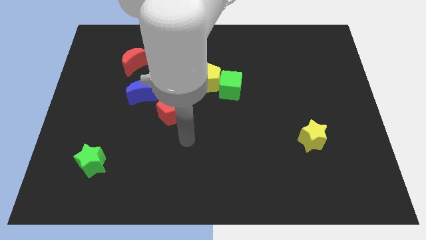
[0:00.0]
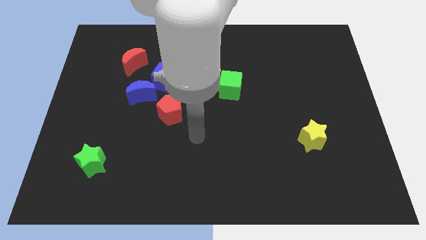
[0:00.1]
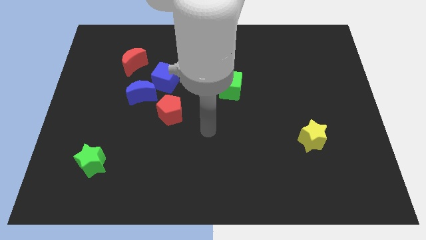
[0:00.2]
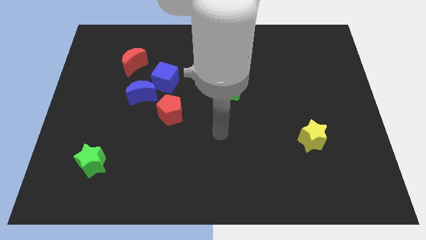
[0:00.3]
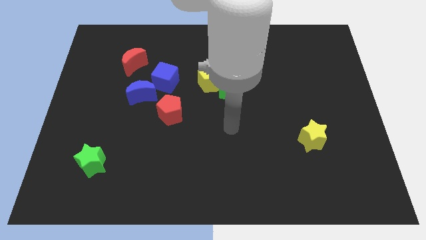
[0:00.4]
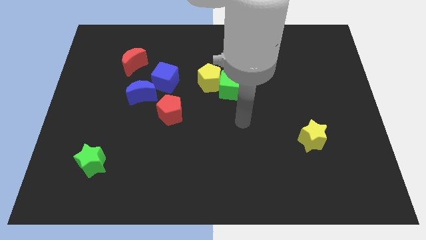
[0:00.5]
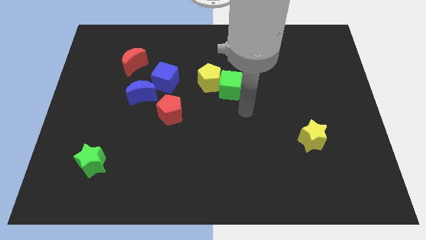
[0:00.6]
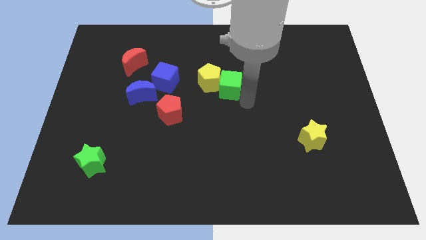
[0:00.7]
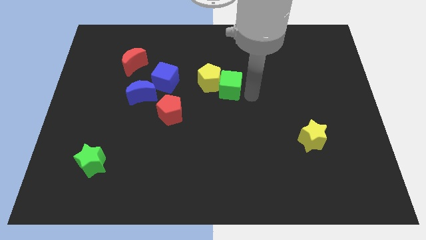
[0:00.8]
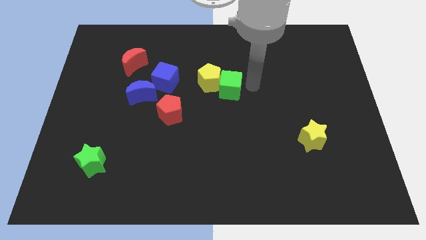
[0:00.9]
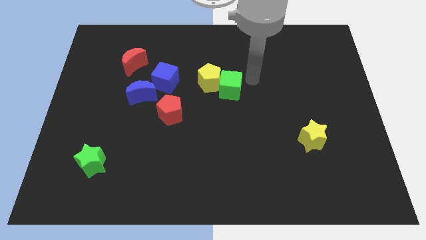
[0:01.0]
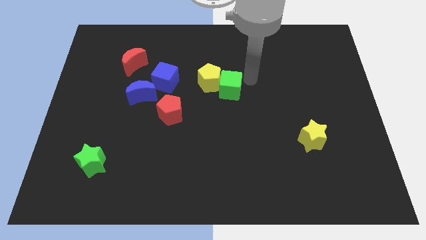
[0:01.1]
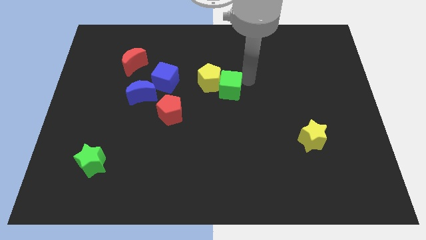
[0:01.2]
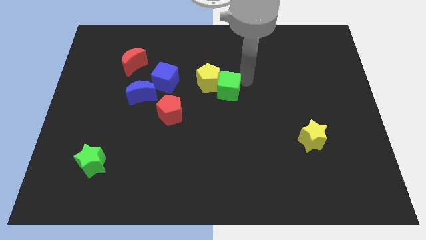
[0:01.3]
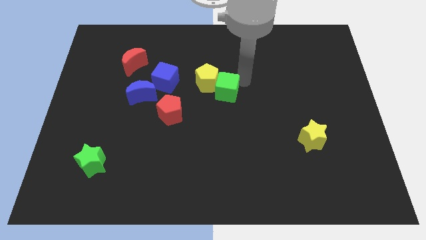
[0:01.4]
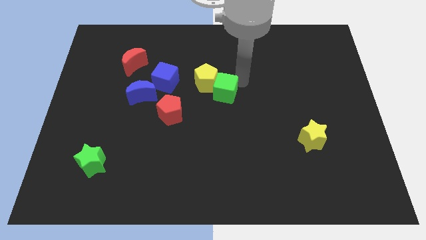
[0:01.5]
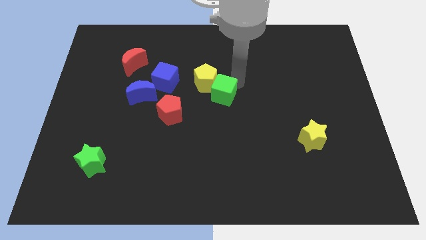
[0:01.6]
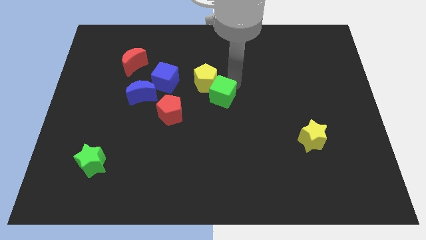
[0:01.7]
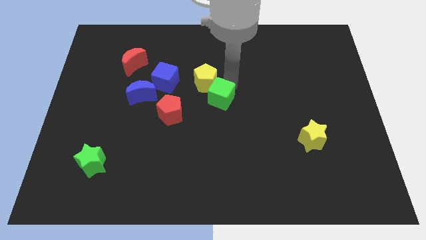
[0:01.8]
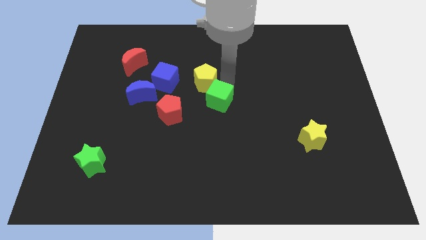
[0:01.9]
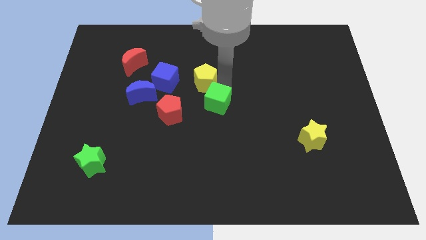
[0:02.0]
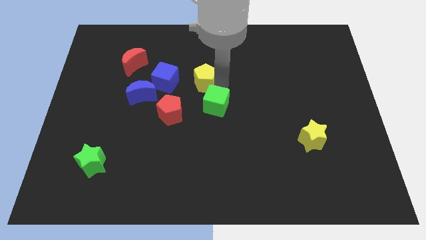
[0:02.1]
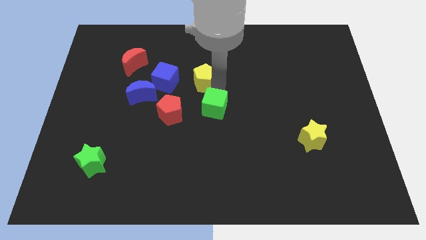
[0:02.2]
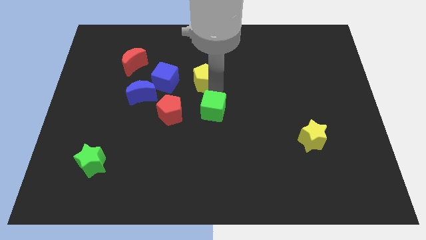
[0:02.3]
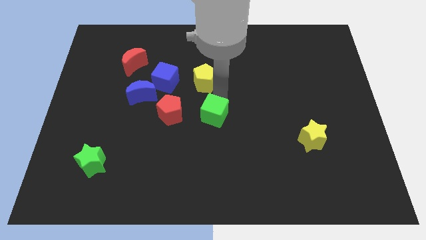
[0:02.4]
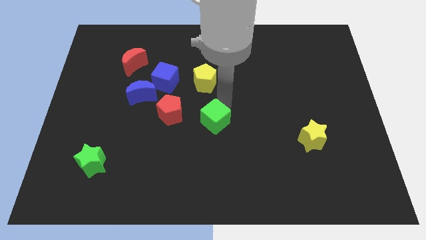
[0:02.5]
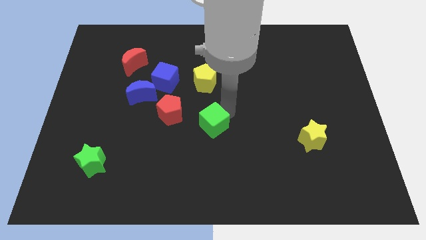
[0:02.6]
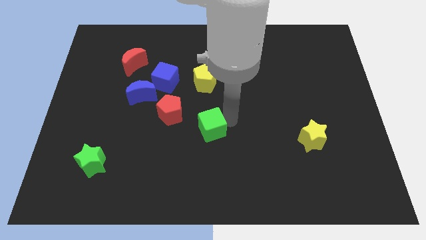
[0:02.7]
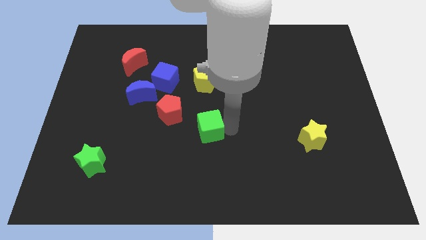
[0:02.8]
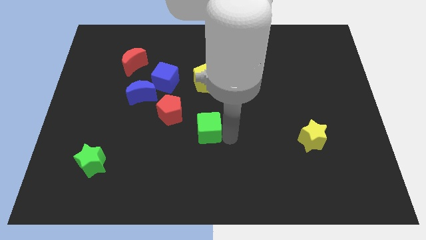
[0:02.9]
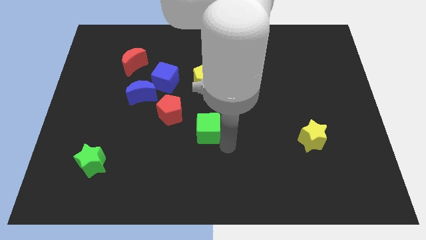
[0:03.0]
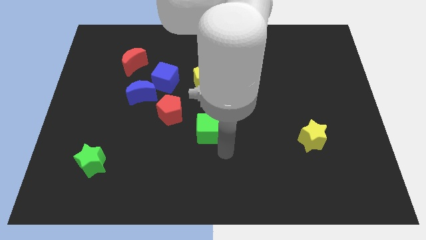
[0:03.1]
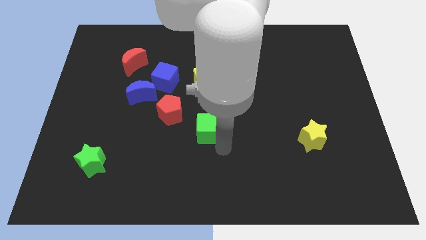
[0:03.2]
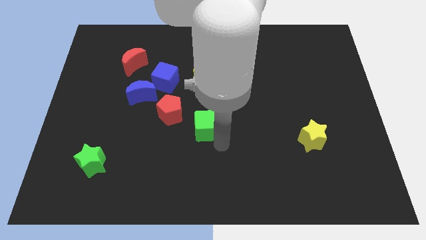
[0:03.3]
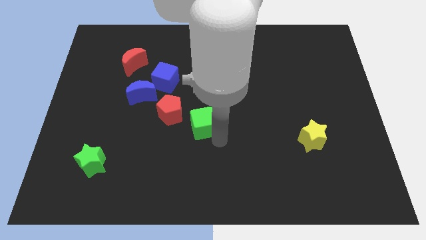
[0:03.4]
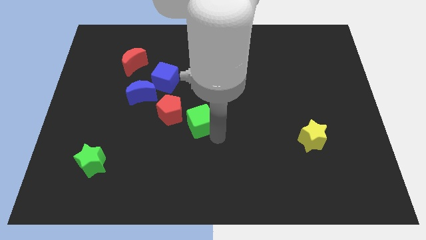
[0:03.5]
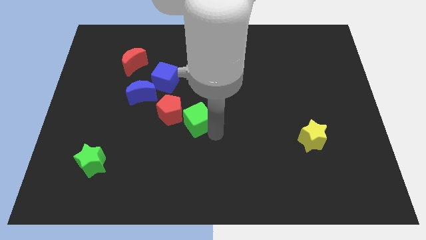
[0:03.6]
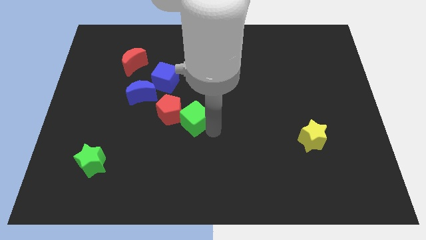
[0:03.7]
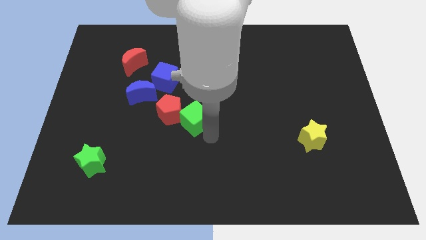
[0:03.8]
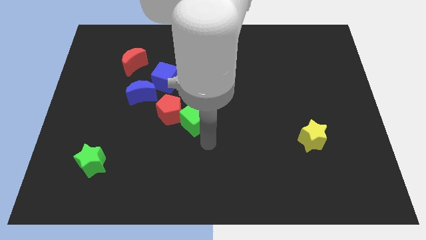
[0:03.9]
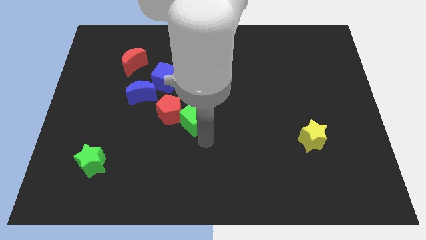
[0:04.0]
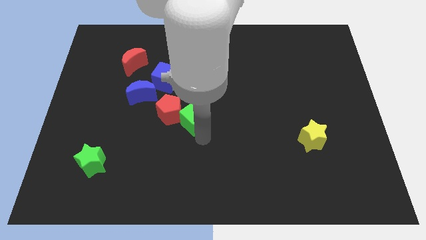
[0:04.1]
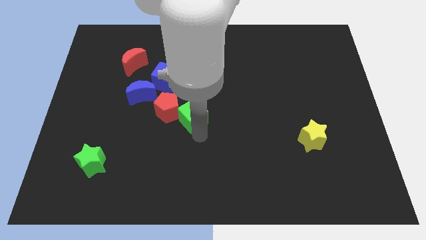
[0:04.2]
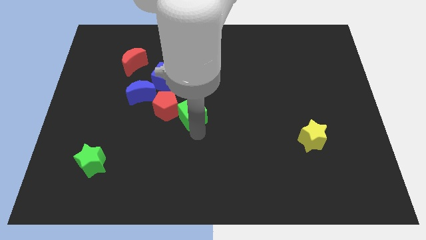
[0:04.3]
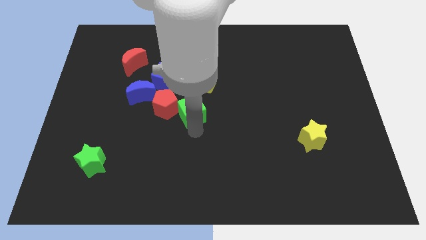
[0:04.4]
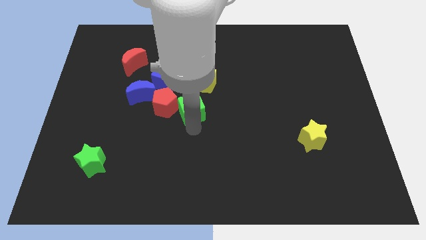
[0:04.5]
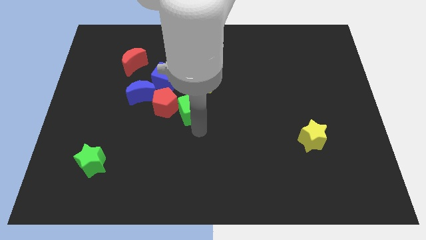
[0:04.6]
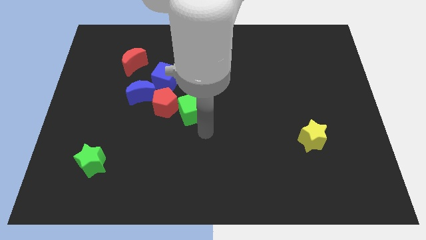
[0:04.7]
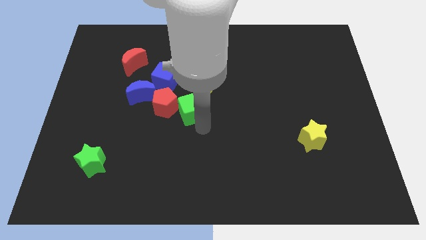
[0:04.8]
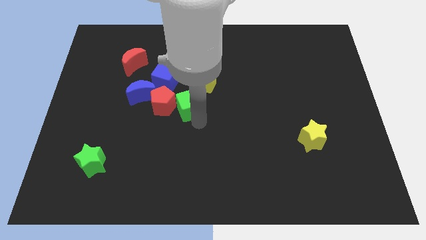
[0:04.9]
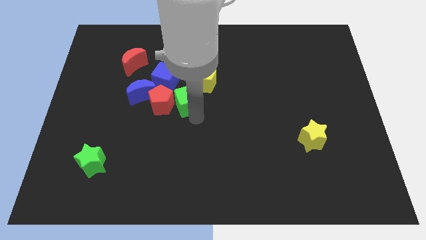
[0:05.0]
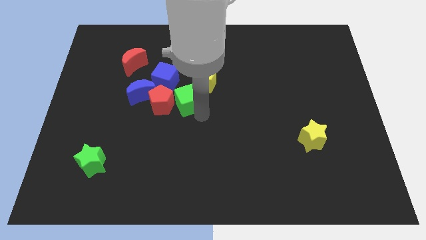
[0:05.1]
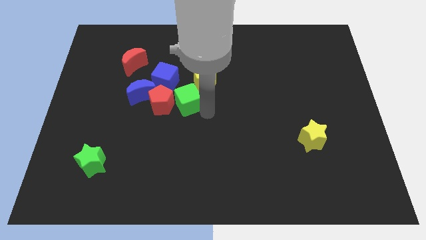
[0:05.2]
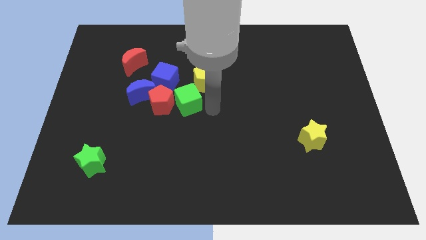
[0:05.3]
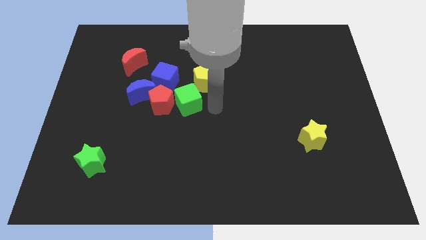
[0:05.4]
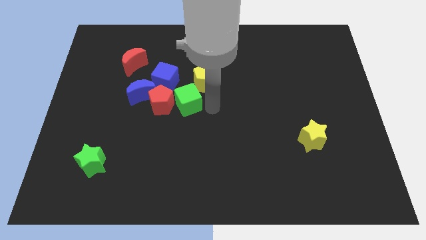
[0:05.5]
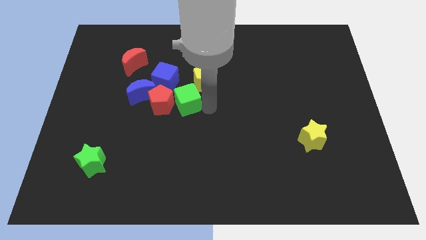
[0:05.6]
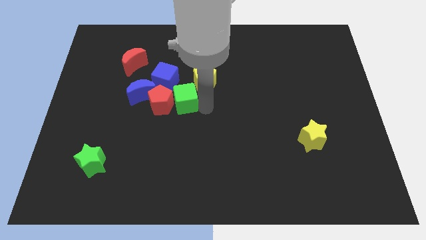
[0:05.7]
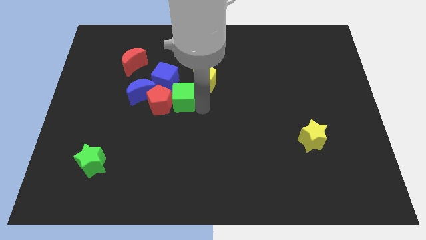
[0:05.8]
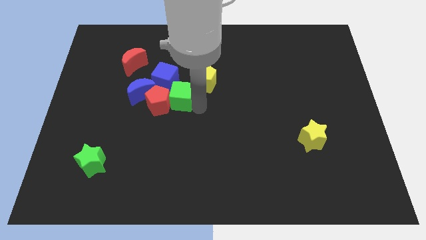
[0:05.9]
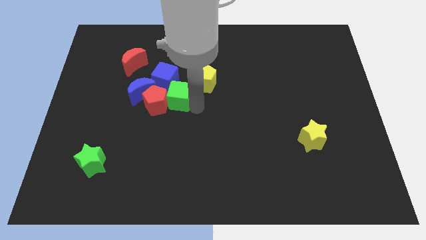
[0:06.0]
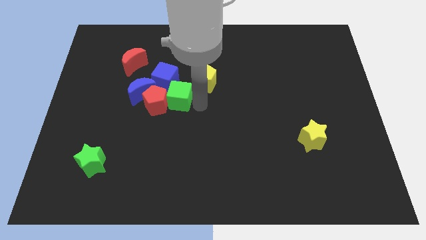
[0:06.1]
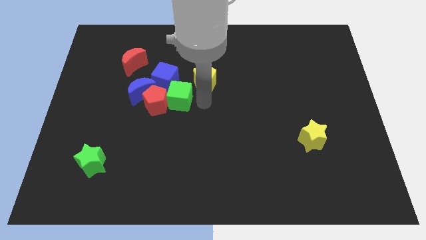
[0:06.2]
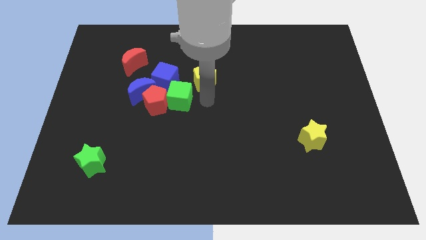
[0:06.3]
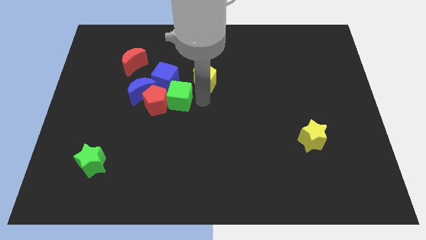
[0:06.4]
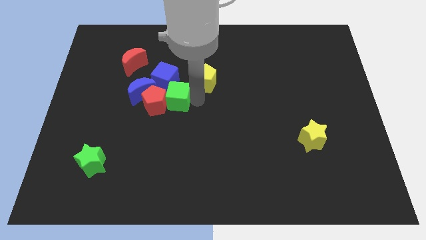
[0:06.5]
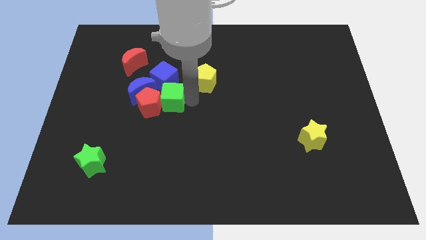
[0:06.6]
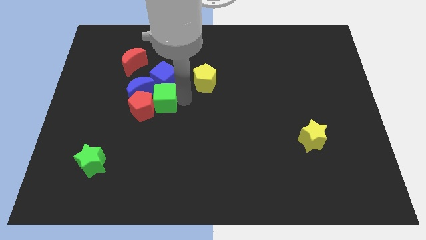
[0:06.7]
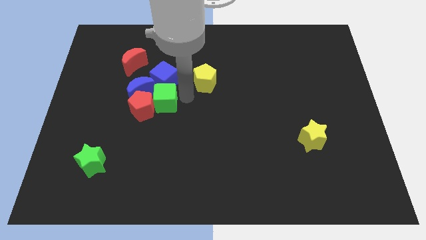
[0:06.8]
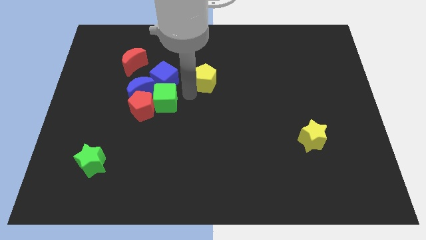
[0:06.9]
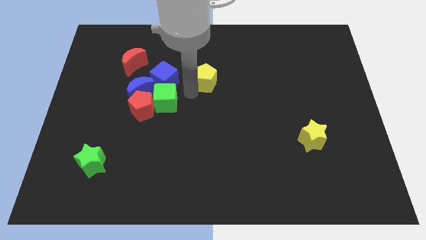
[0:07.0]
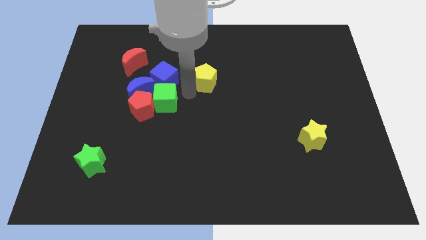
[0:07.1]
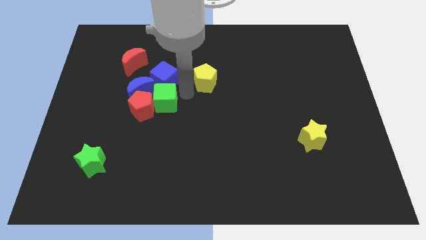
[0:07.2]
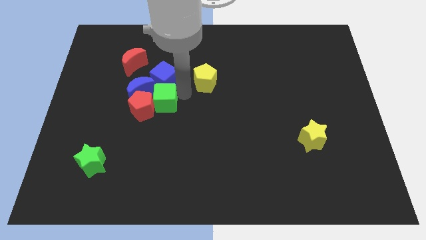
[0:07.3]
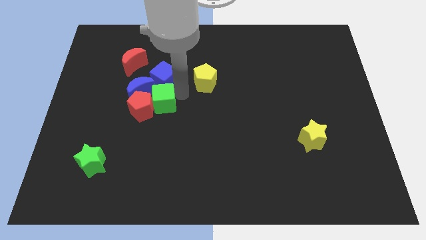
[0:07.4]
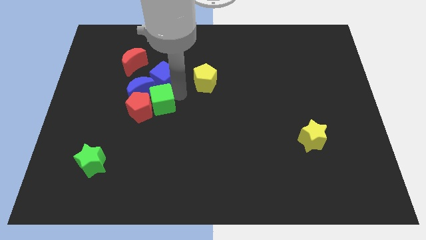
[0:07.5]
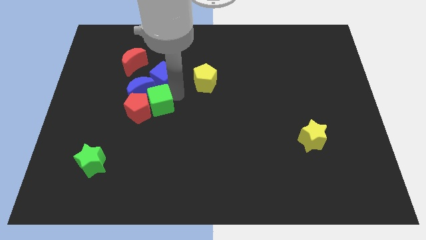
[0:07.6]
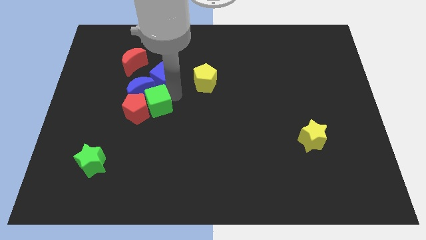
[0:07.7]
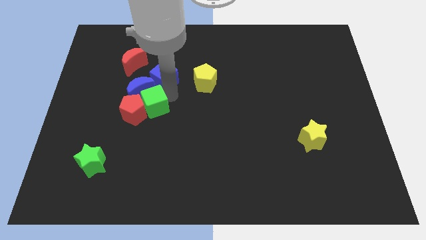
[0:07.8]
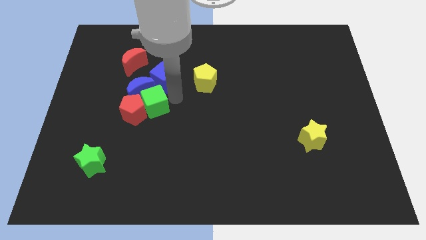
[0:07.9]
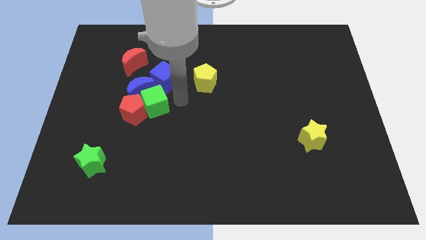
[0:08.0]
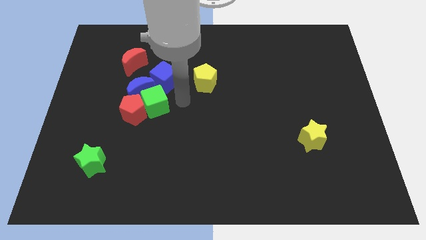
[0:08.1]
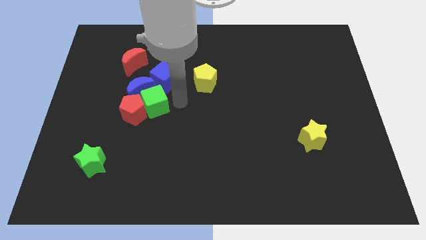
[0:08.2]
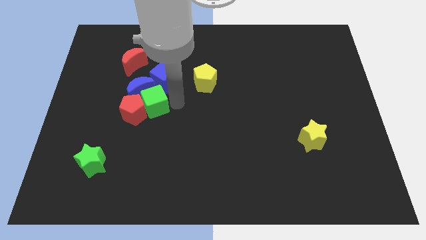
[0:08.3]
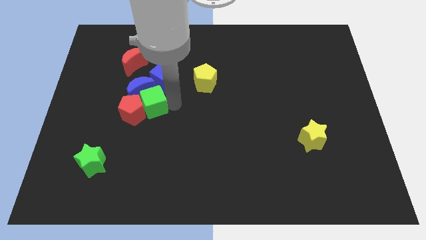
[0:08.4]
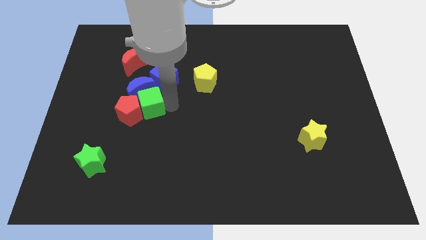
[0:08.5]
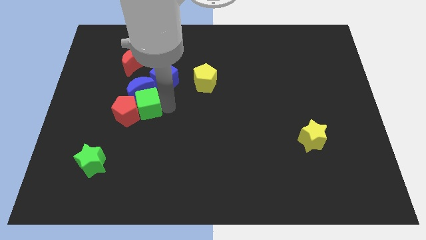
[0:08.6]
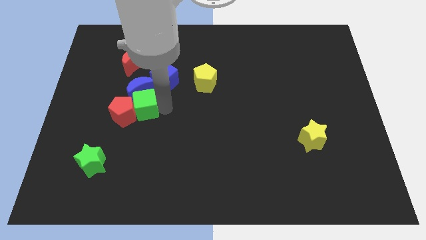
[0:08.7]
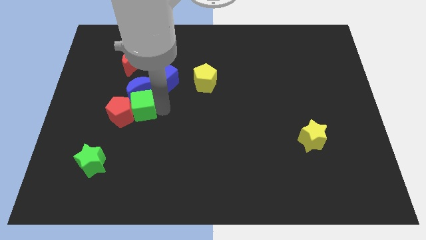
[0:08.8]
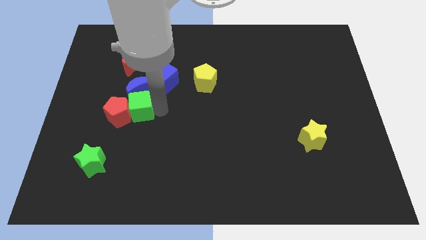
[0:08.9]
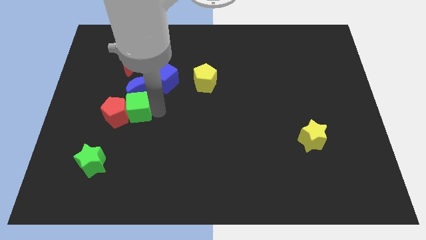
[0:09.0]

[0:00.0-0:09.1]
push the green cube to the left
